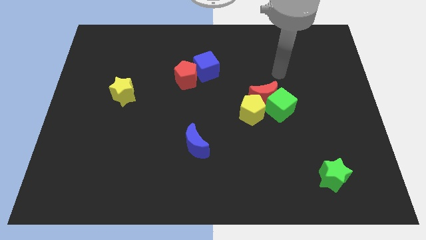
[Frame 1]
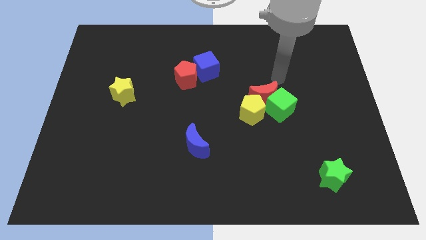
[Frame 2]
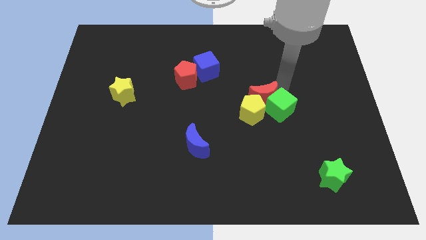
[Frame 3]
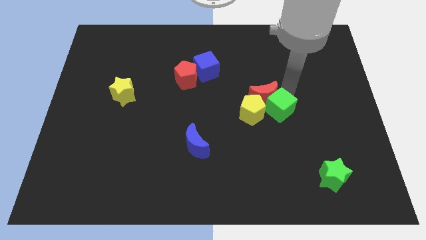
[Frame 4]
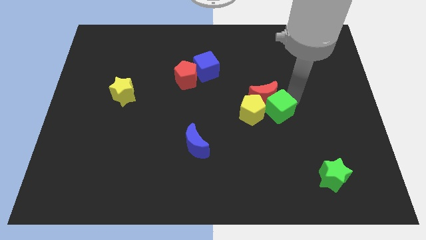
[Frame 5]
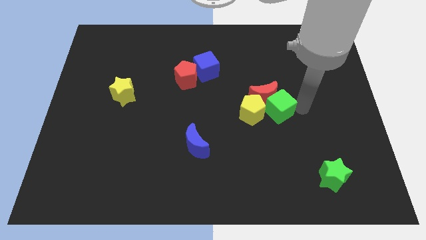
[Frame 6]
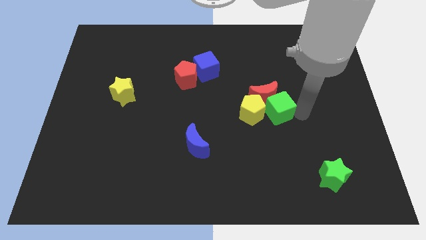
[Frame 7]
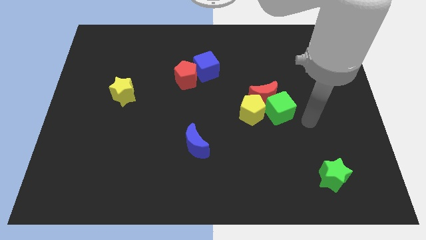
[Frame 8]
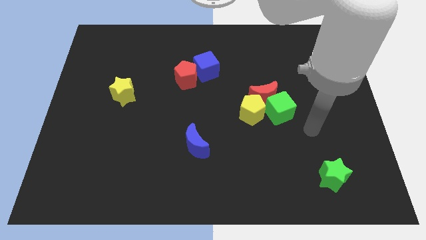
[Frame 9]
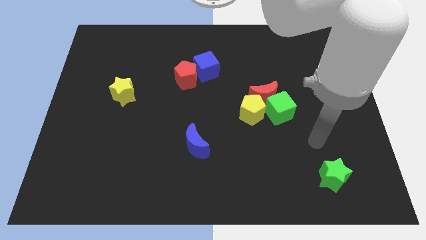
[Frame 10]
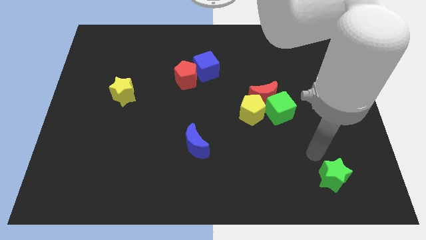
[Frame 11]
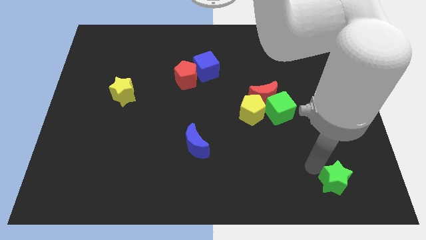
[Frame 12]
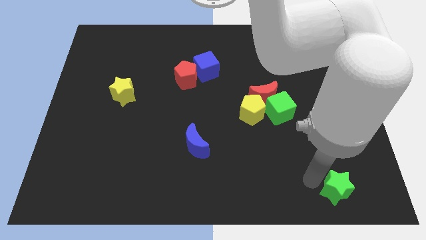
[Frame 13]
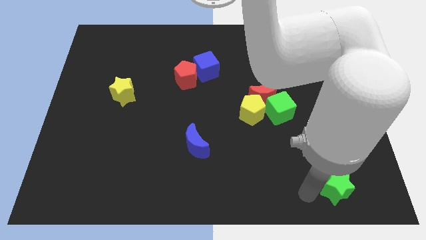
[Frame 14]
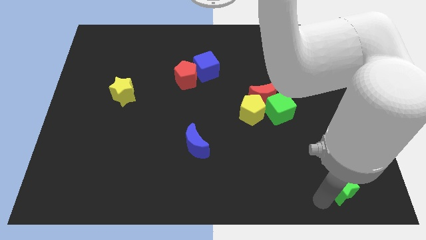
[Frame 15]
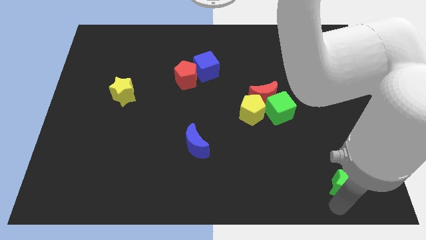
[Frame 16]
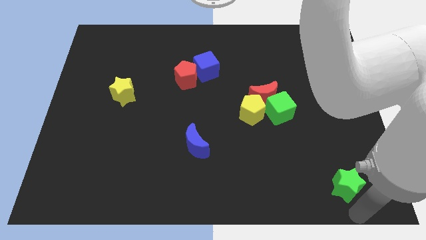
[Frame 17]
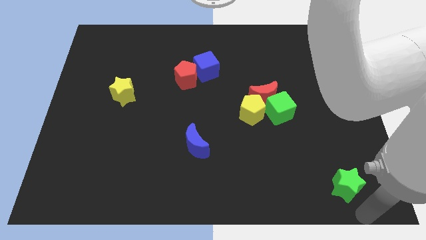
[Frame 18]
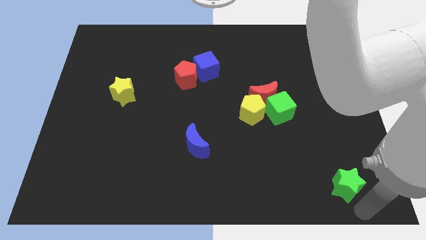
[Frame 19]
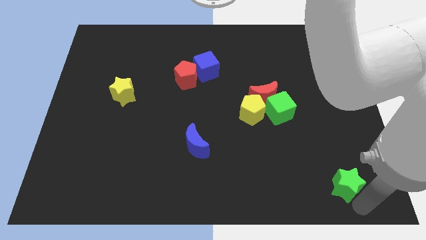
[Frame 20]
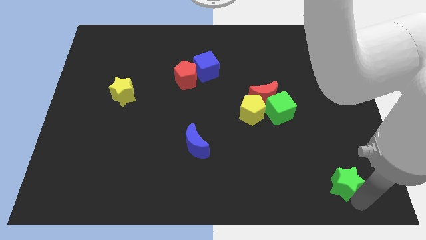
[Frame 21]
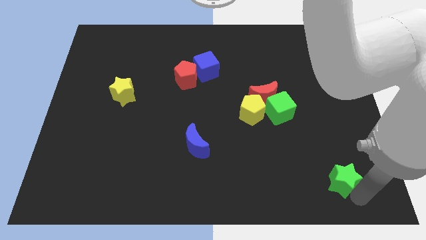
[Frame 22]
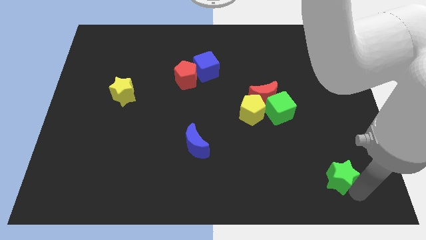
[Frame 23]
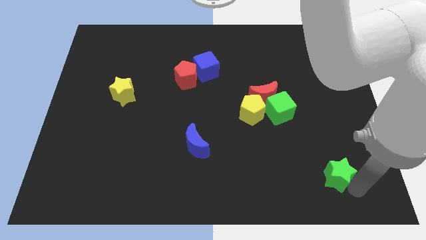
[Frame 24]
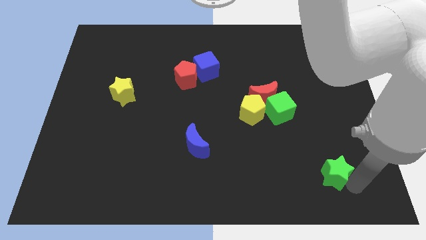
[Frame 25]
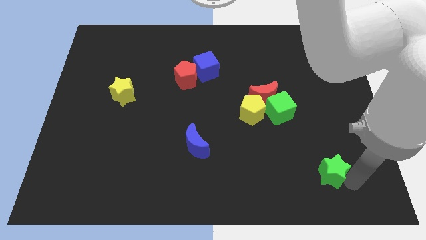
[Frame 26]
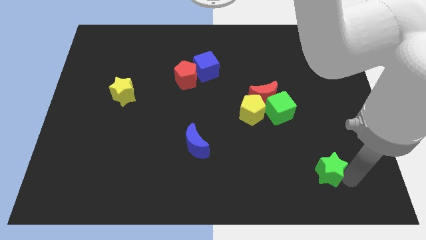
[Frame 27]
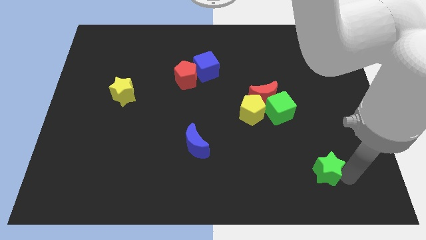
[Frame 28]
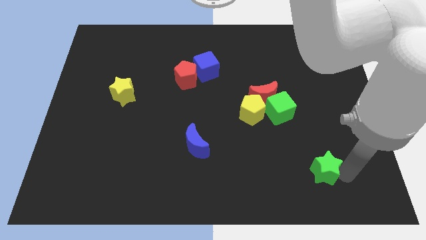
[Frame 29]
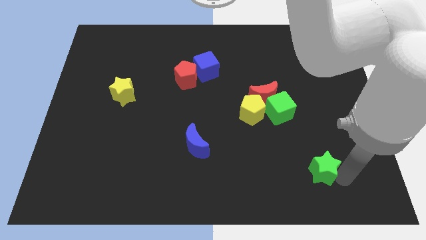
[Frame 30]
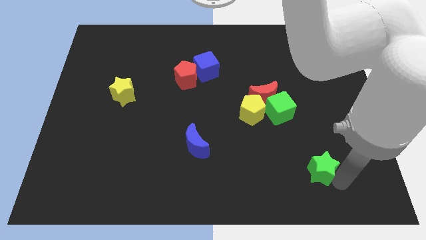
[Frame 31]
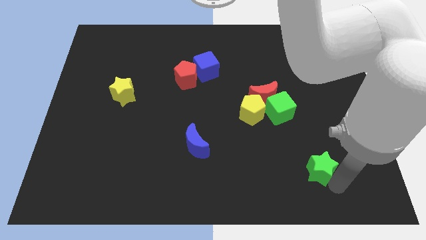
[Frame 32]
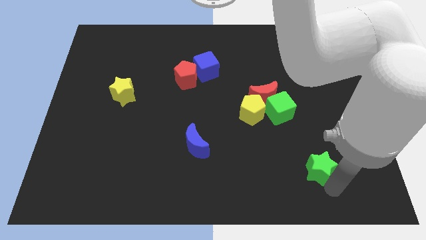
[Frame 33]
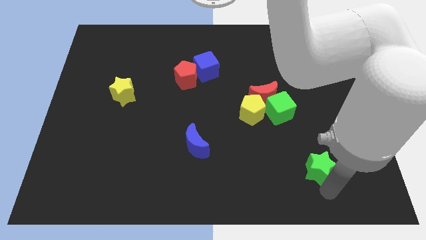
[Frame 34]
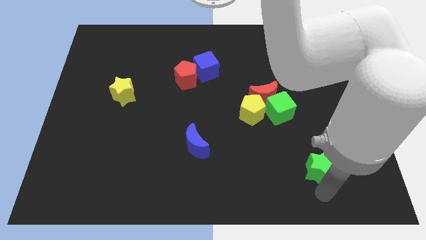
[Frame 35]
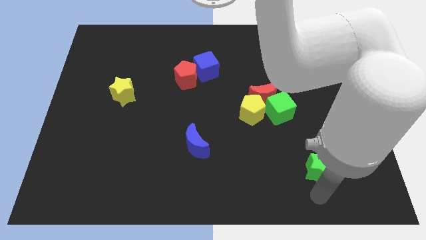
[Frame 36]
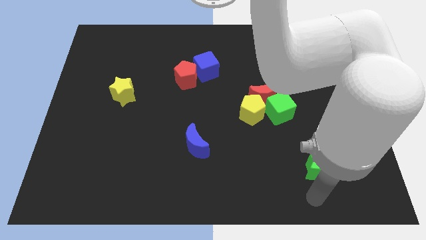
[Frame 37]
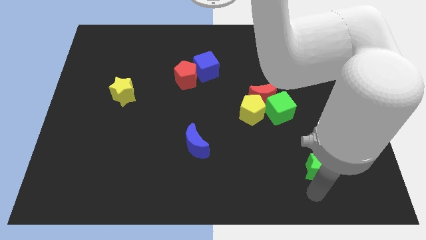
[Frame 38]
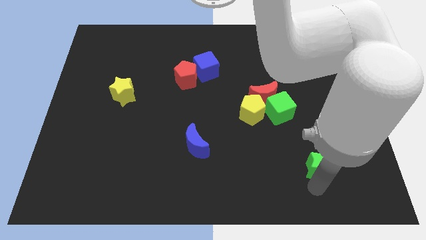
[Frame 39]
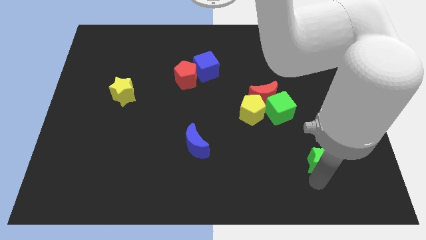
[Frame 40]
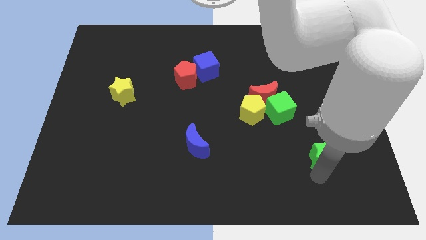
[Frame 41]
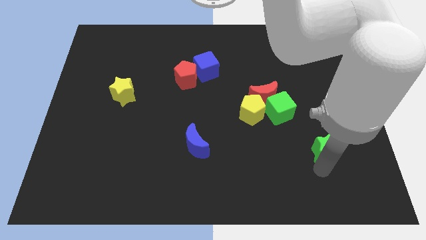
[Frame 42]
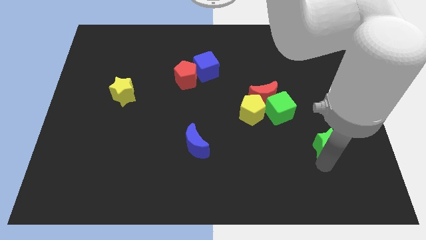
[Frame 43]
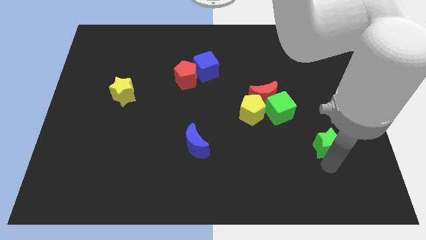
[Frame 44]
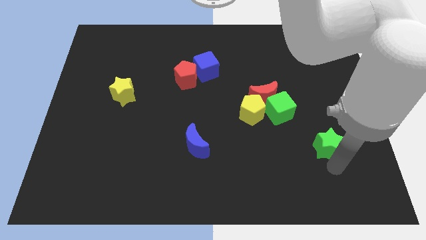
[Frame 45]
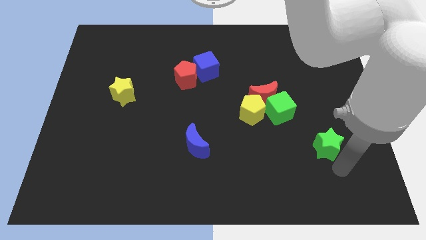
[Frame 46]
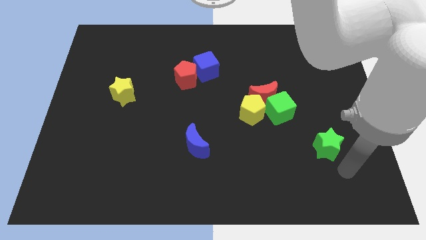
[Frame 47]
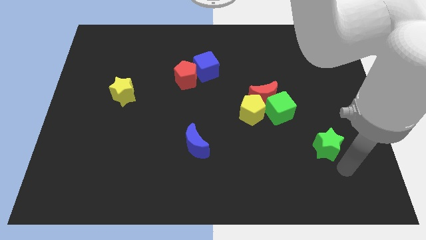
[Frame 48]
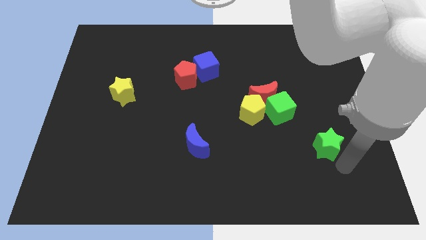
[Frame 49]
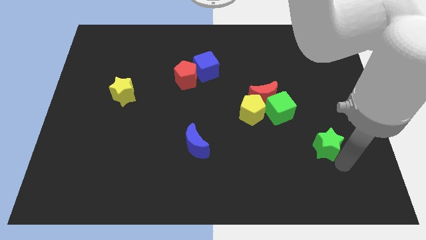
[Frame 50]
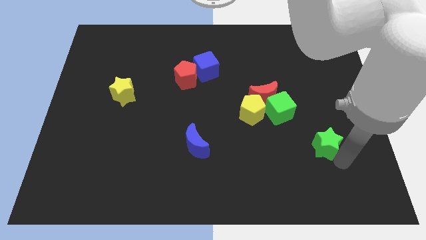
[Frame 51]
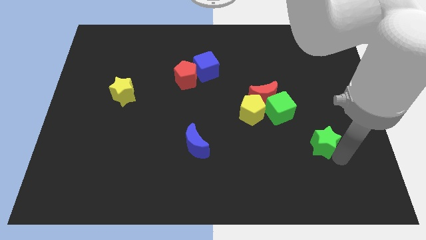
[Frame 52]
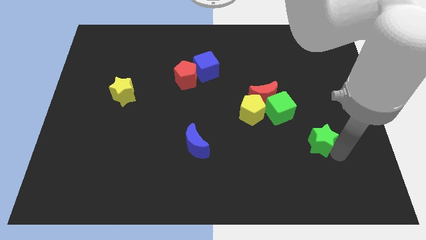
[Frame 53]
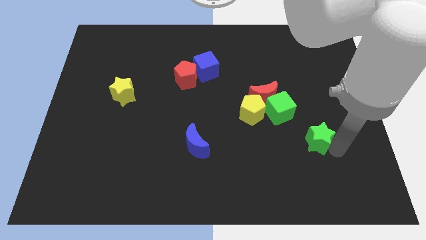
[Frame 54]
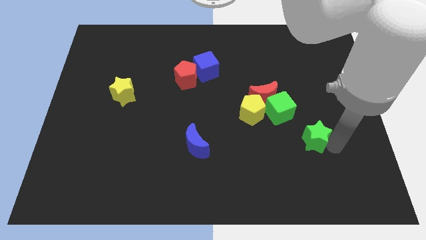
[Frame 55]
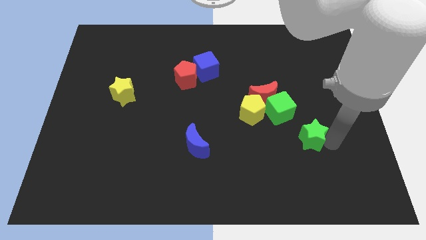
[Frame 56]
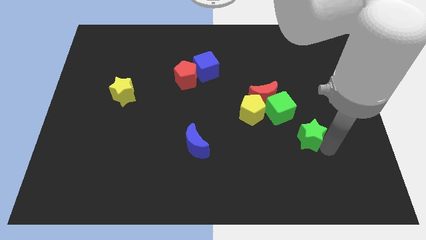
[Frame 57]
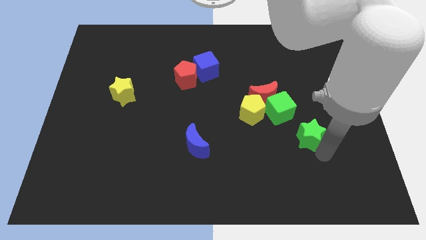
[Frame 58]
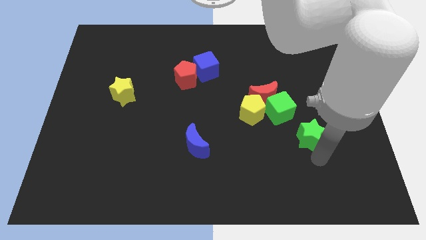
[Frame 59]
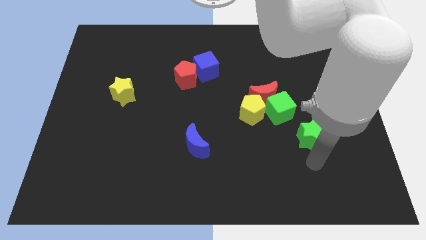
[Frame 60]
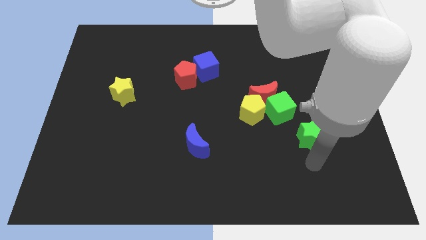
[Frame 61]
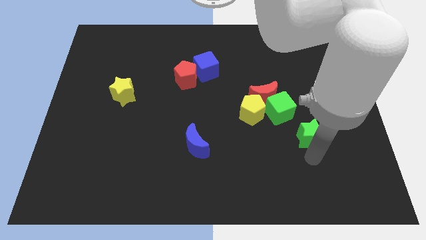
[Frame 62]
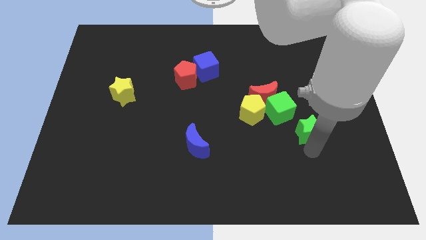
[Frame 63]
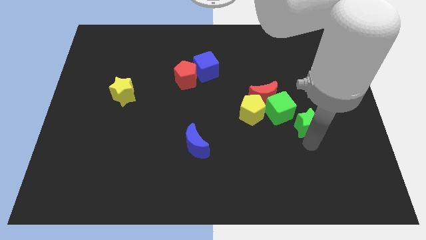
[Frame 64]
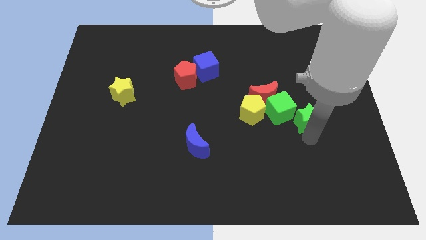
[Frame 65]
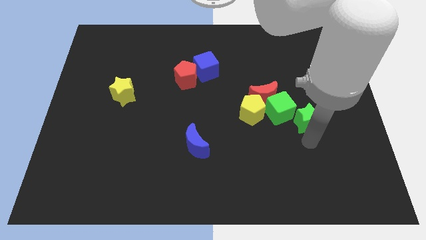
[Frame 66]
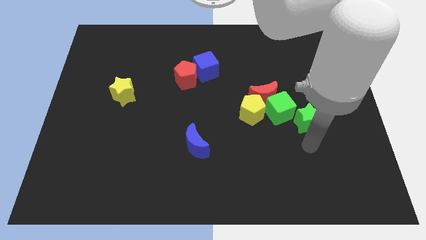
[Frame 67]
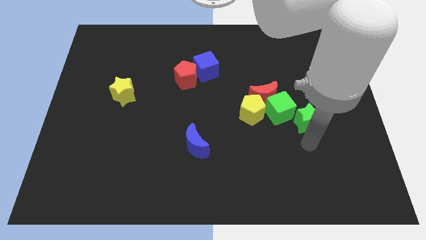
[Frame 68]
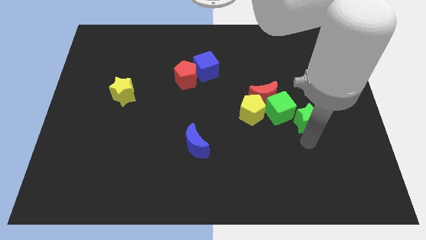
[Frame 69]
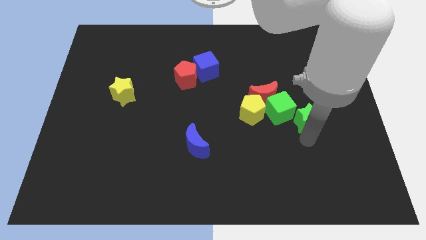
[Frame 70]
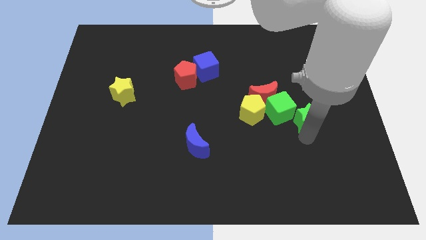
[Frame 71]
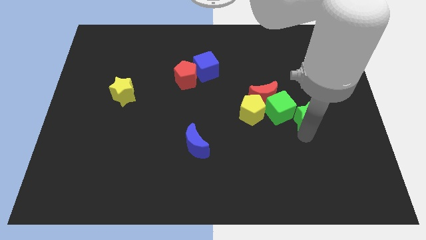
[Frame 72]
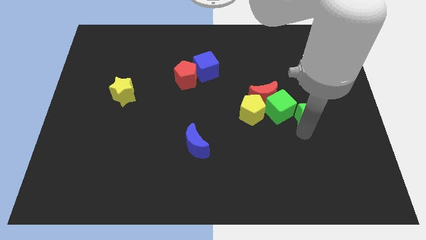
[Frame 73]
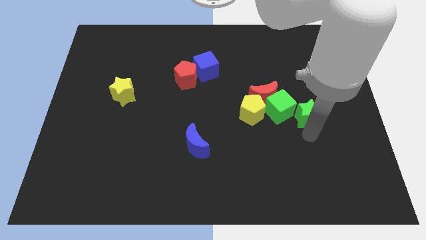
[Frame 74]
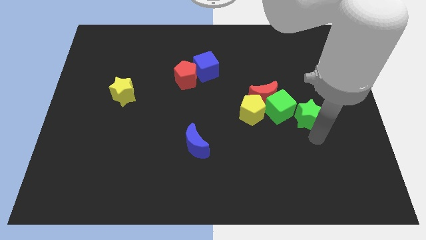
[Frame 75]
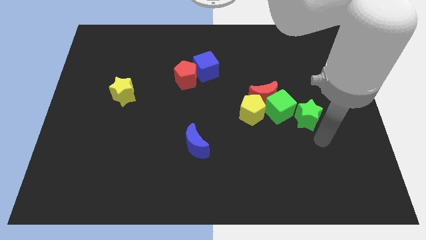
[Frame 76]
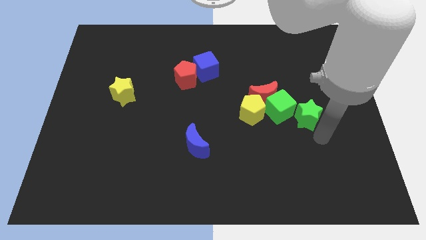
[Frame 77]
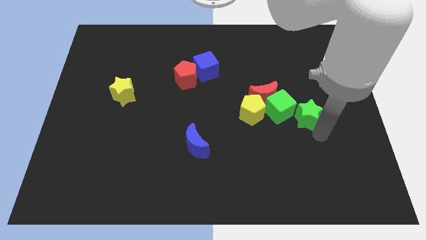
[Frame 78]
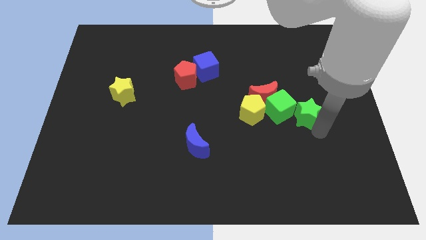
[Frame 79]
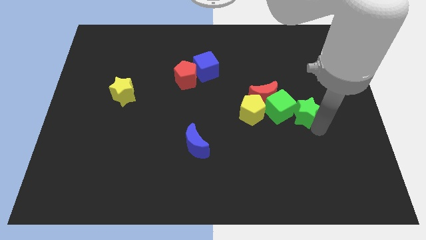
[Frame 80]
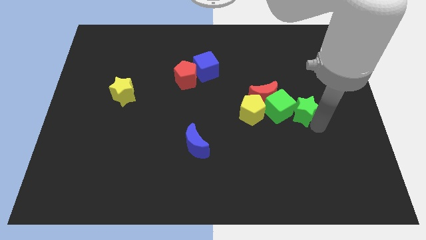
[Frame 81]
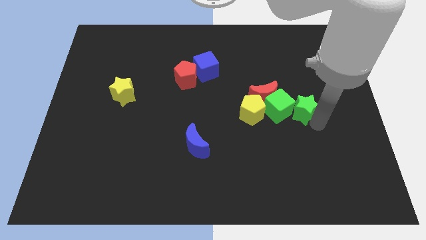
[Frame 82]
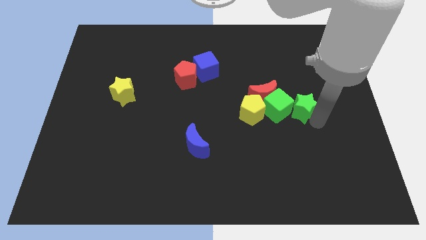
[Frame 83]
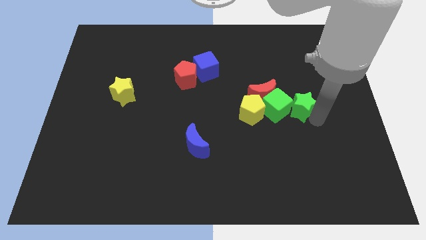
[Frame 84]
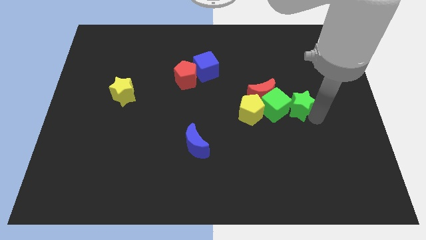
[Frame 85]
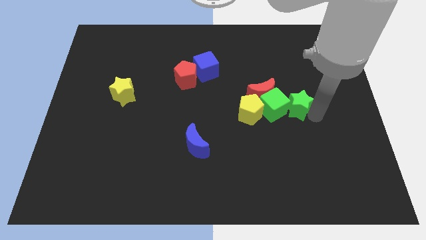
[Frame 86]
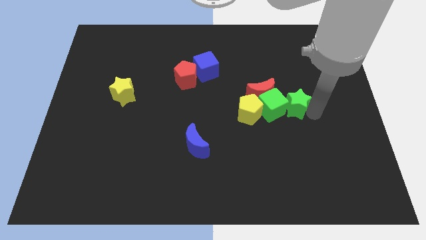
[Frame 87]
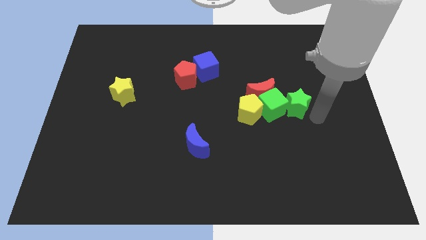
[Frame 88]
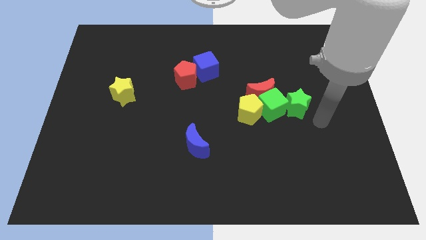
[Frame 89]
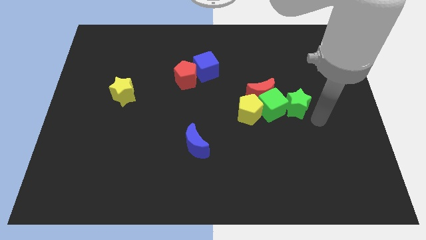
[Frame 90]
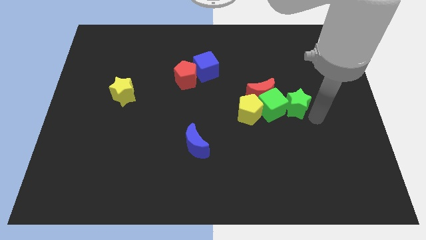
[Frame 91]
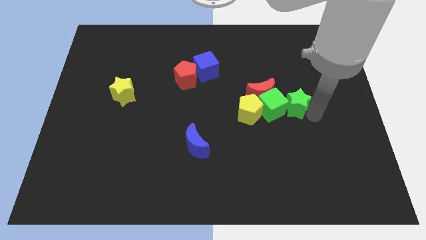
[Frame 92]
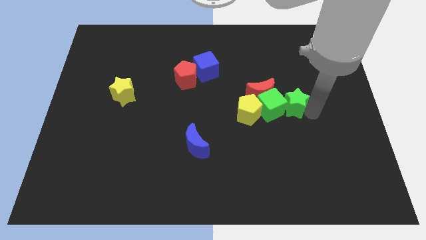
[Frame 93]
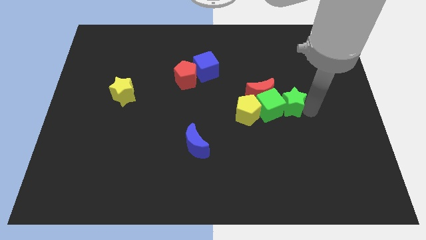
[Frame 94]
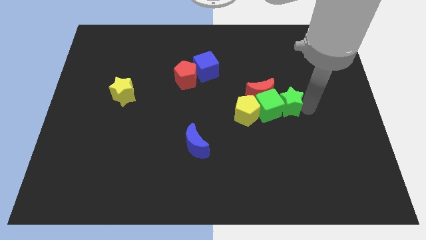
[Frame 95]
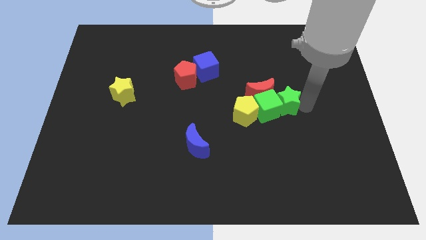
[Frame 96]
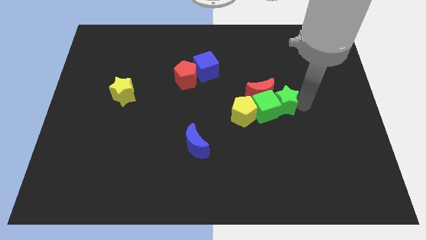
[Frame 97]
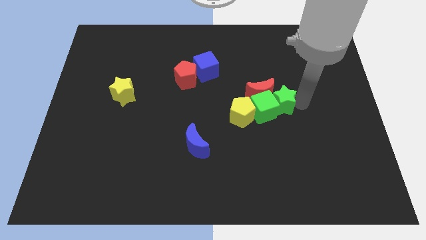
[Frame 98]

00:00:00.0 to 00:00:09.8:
push the green star next to the red moon
